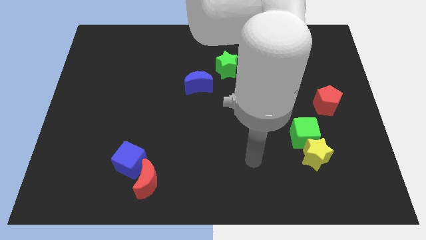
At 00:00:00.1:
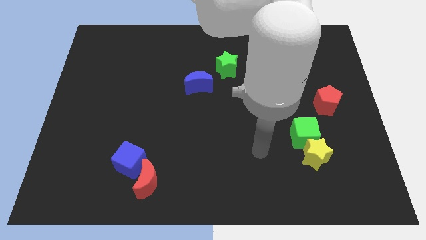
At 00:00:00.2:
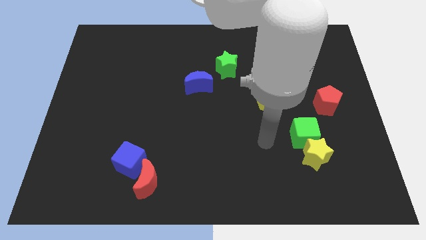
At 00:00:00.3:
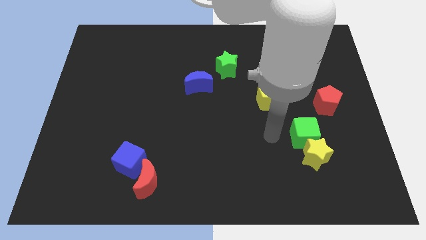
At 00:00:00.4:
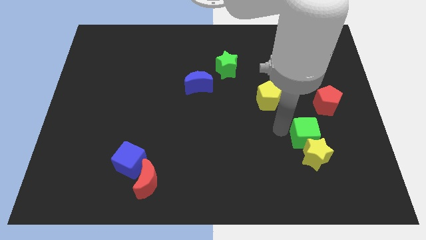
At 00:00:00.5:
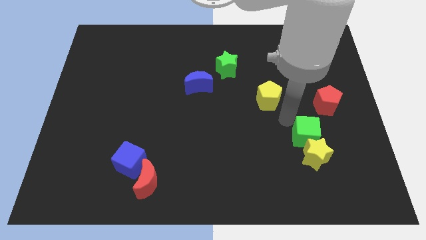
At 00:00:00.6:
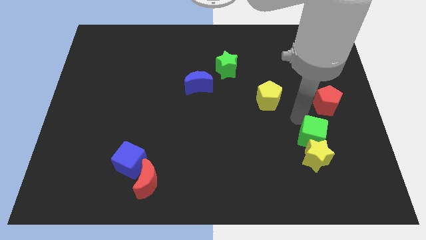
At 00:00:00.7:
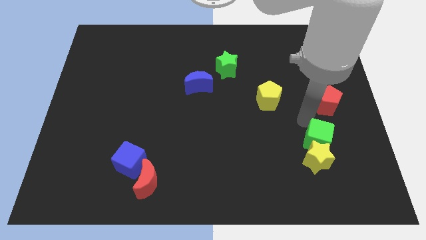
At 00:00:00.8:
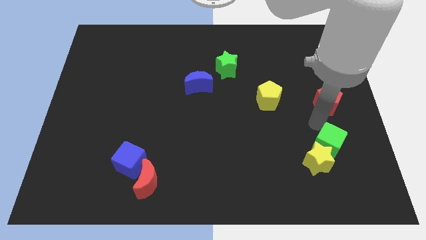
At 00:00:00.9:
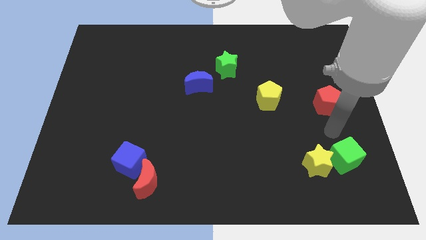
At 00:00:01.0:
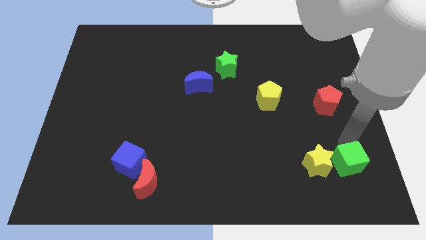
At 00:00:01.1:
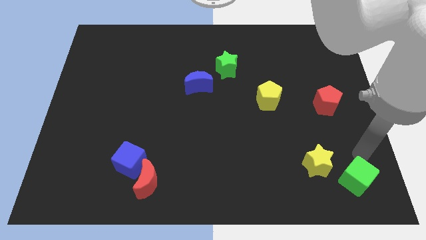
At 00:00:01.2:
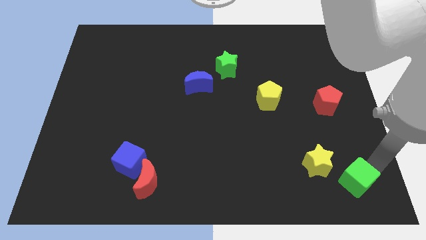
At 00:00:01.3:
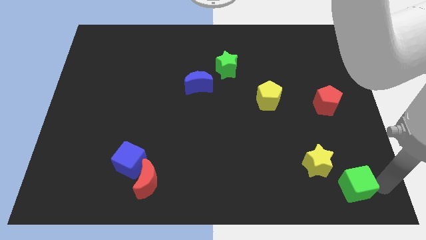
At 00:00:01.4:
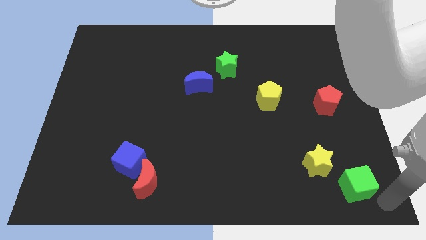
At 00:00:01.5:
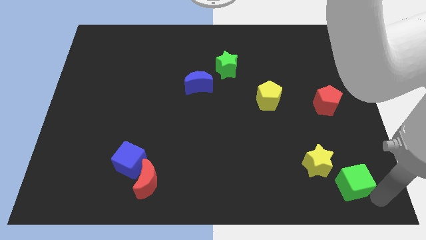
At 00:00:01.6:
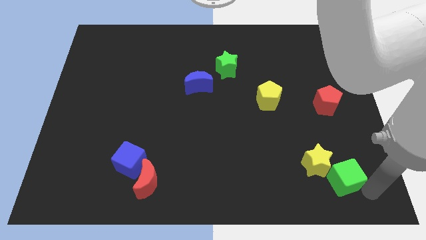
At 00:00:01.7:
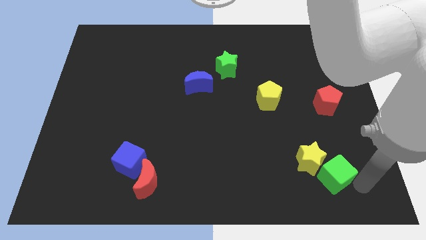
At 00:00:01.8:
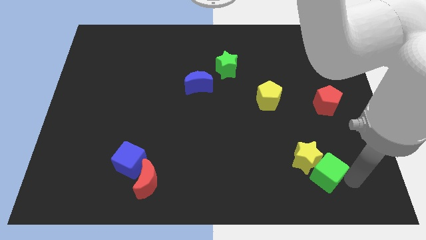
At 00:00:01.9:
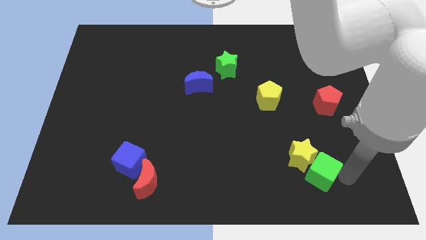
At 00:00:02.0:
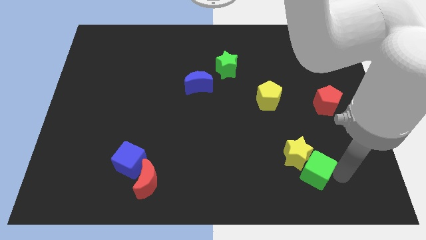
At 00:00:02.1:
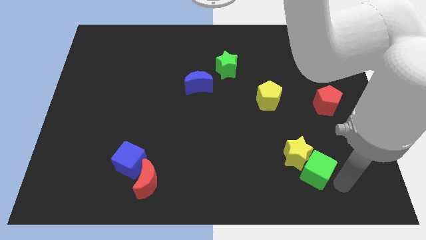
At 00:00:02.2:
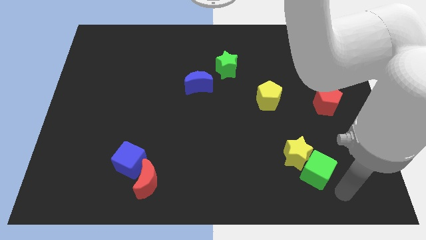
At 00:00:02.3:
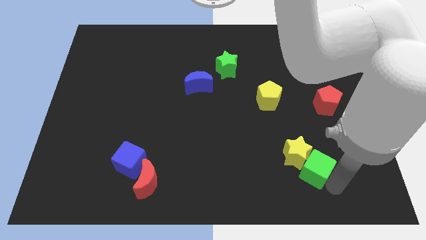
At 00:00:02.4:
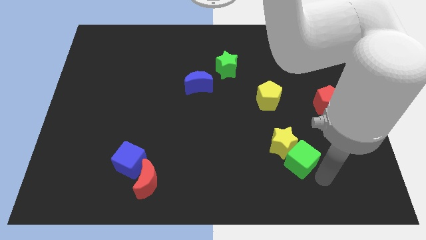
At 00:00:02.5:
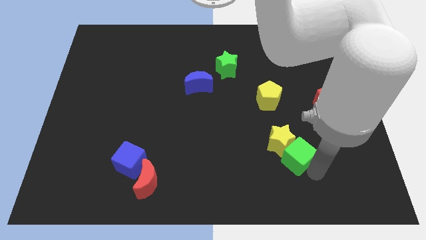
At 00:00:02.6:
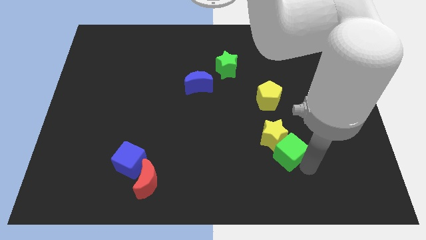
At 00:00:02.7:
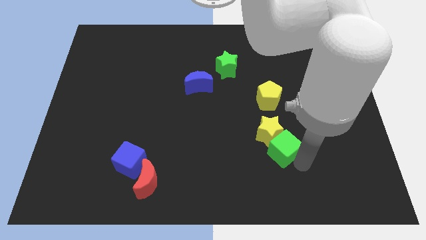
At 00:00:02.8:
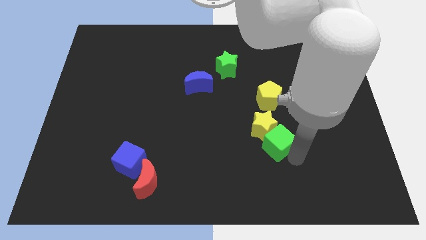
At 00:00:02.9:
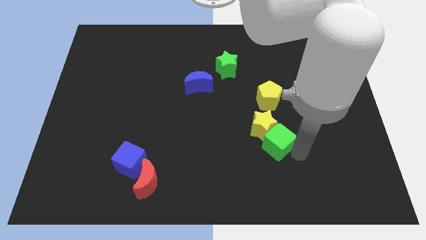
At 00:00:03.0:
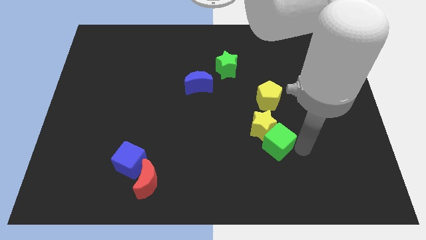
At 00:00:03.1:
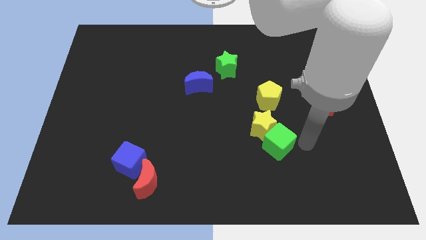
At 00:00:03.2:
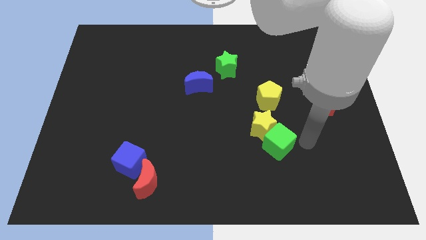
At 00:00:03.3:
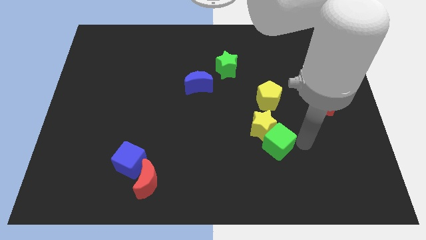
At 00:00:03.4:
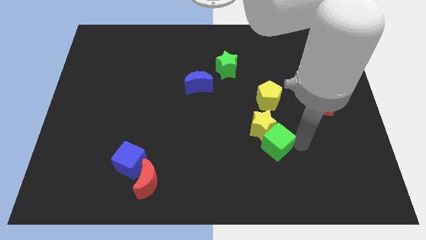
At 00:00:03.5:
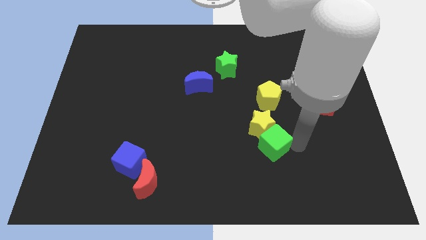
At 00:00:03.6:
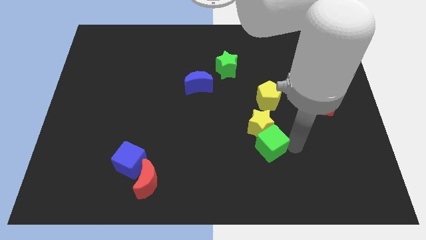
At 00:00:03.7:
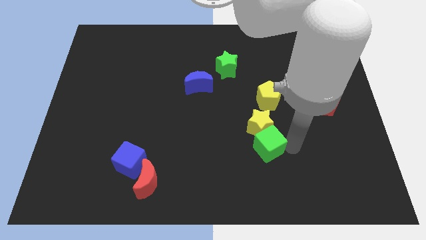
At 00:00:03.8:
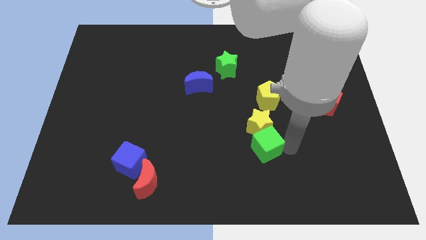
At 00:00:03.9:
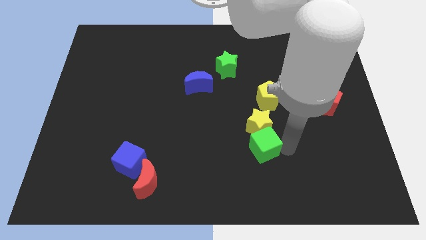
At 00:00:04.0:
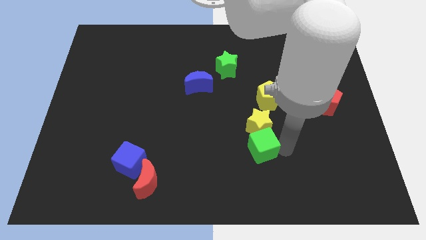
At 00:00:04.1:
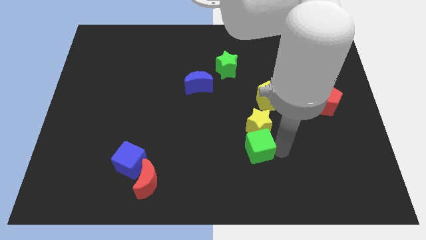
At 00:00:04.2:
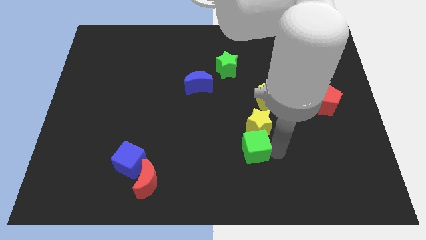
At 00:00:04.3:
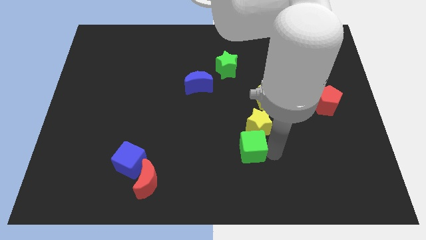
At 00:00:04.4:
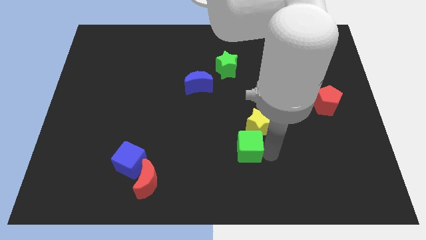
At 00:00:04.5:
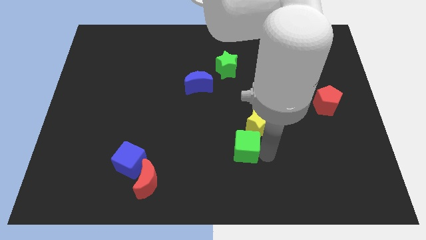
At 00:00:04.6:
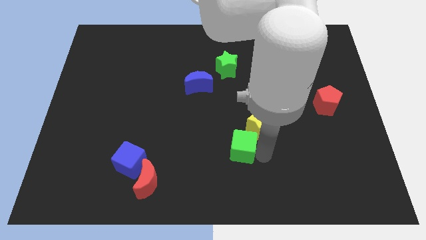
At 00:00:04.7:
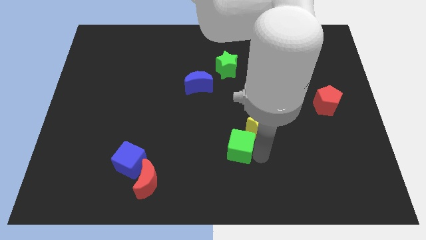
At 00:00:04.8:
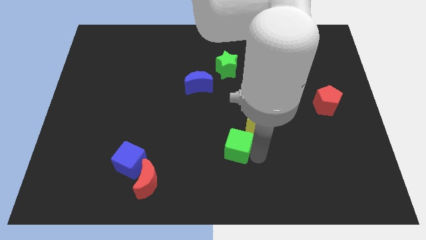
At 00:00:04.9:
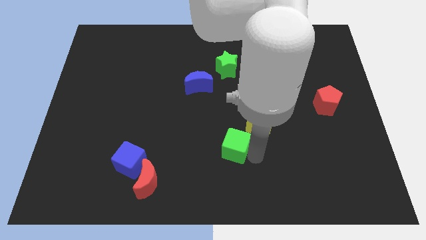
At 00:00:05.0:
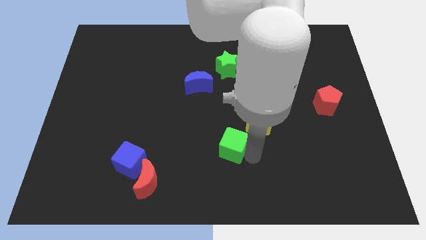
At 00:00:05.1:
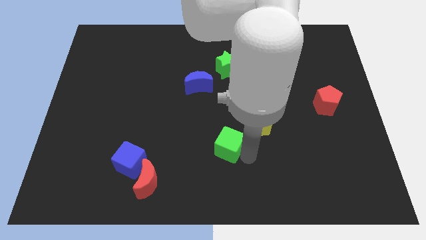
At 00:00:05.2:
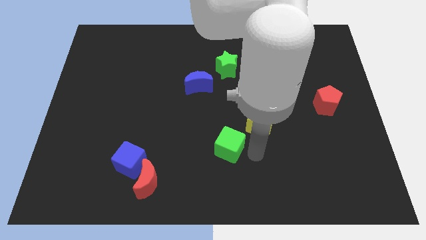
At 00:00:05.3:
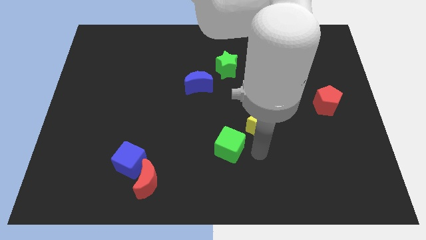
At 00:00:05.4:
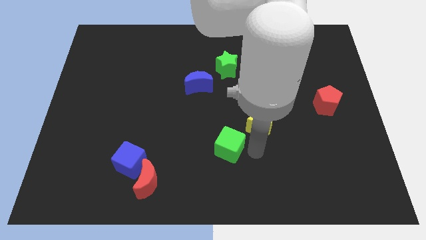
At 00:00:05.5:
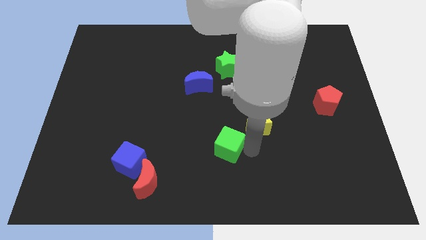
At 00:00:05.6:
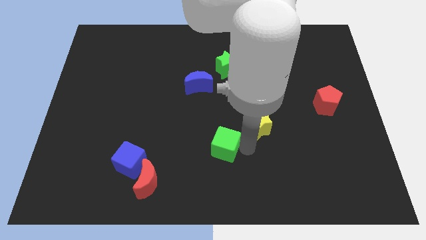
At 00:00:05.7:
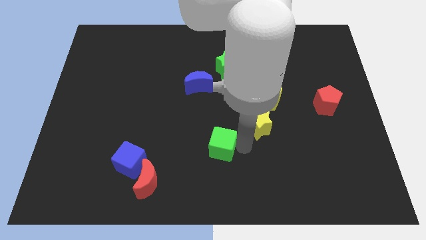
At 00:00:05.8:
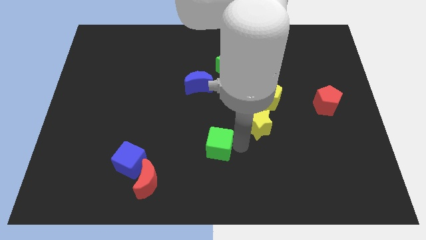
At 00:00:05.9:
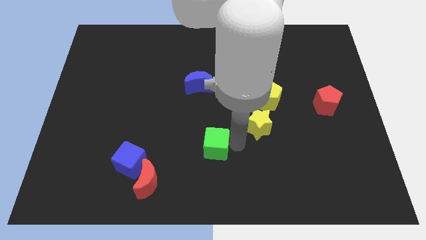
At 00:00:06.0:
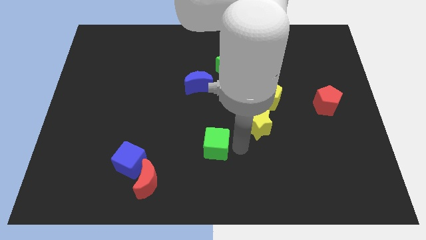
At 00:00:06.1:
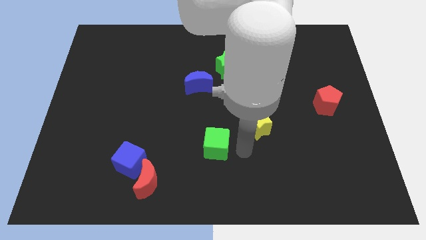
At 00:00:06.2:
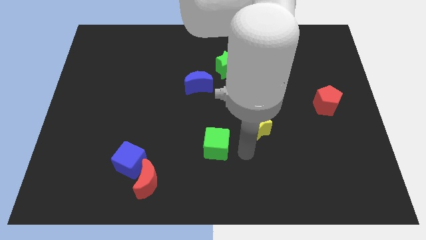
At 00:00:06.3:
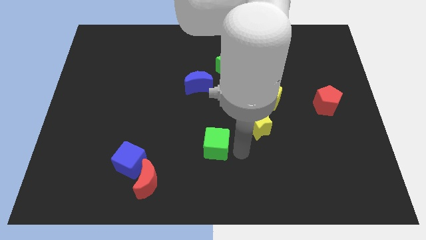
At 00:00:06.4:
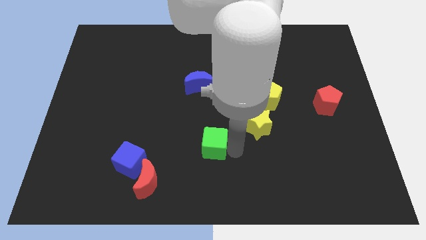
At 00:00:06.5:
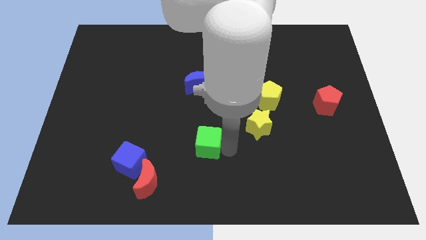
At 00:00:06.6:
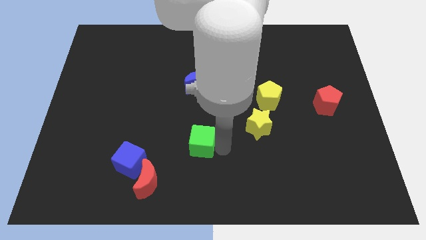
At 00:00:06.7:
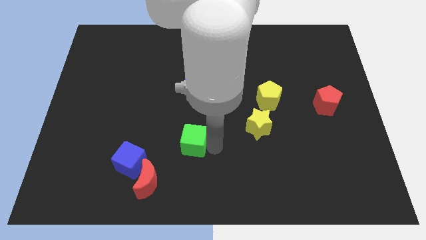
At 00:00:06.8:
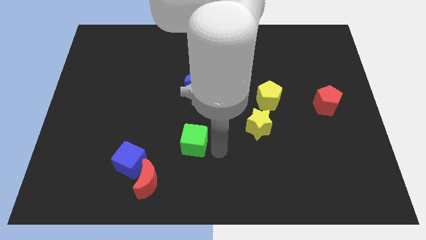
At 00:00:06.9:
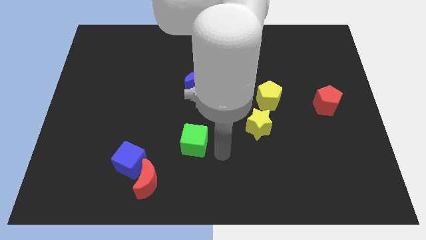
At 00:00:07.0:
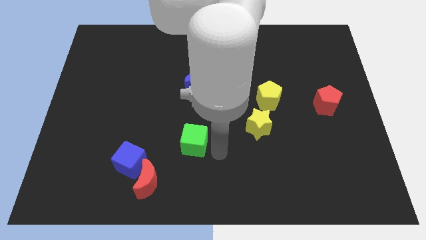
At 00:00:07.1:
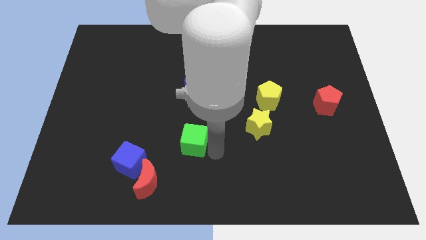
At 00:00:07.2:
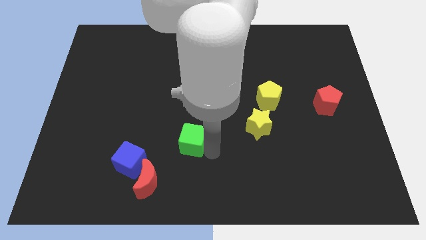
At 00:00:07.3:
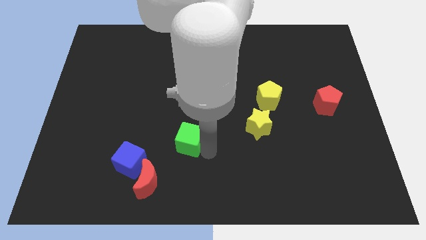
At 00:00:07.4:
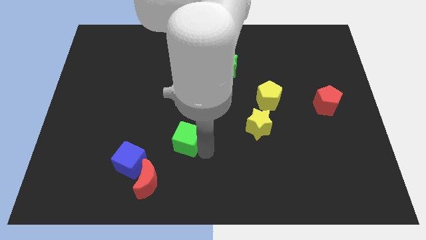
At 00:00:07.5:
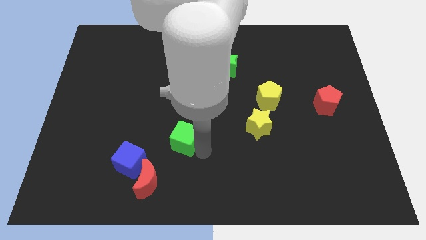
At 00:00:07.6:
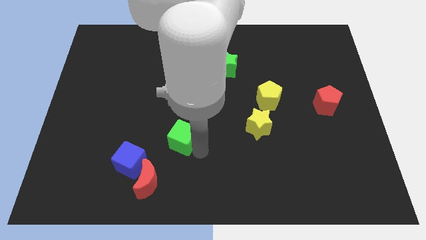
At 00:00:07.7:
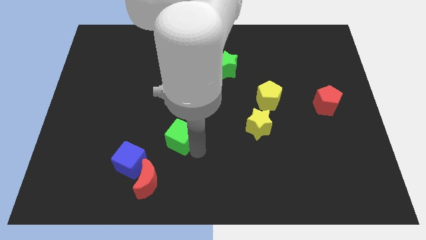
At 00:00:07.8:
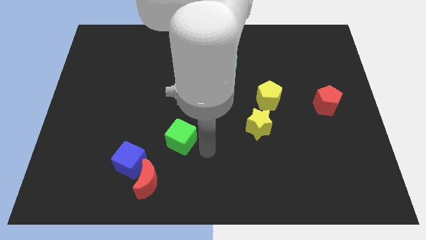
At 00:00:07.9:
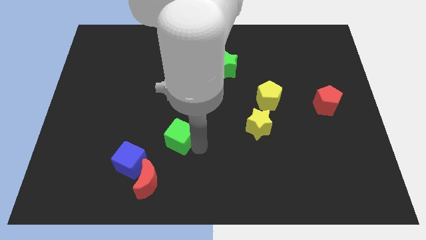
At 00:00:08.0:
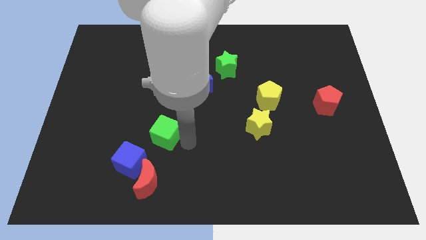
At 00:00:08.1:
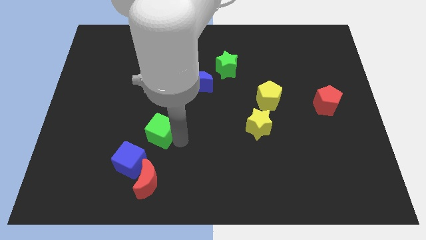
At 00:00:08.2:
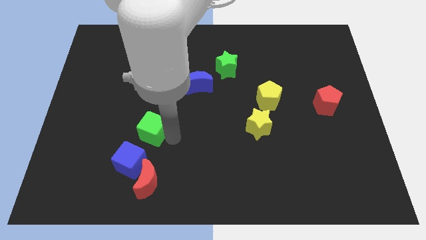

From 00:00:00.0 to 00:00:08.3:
push the green cube to the top side of the blue cube
